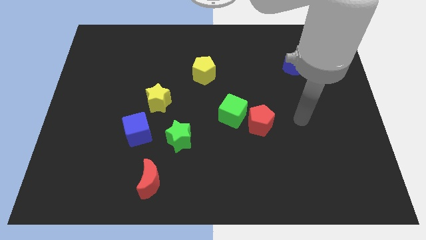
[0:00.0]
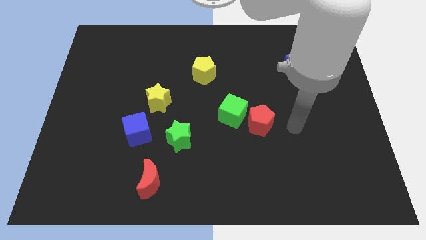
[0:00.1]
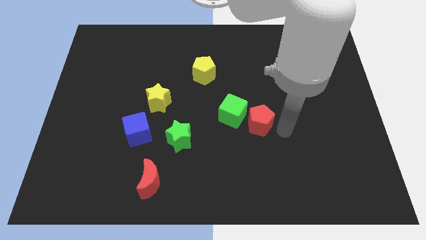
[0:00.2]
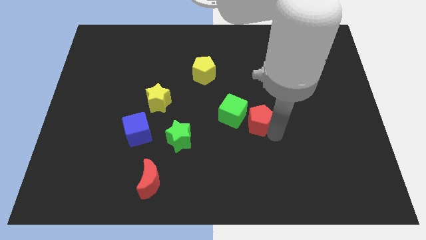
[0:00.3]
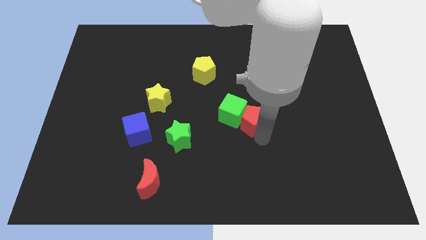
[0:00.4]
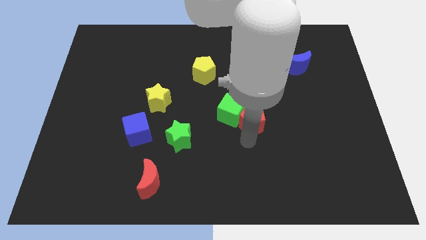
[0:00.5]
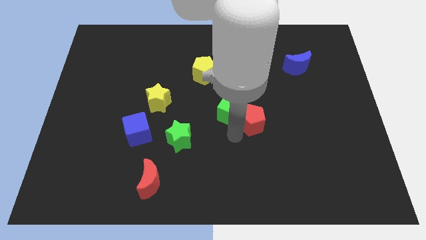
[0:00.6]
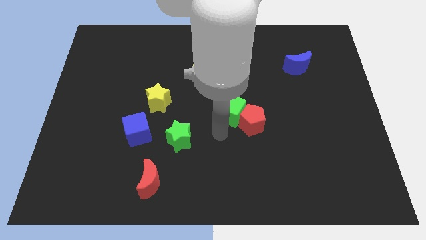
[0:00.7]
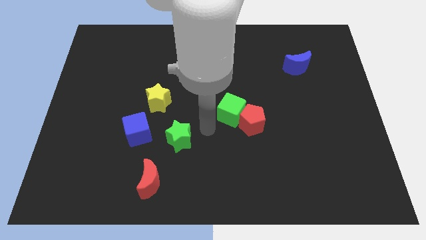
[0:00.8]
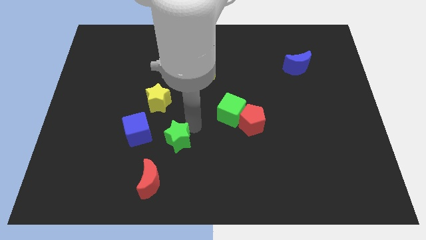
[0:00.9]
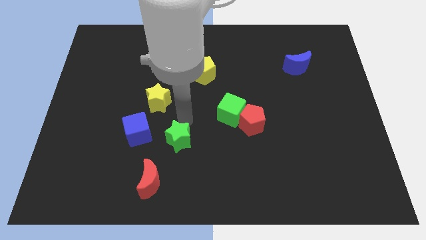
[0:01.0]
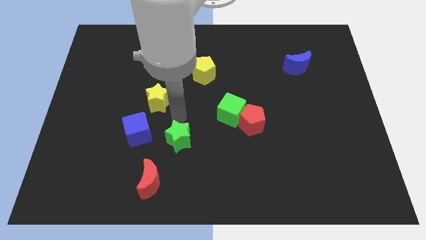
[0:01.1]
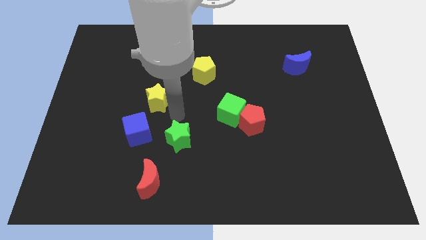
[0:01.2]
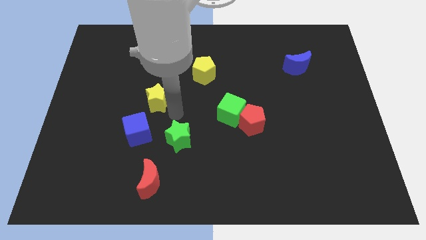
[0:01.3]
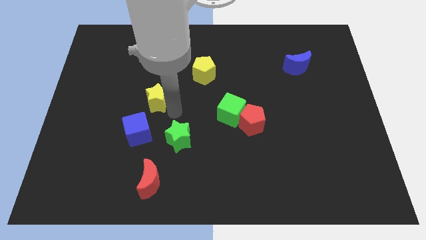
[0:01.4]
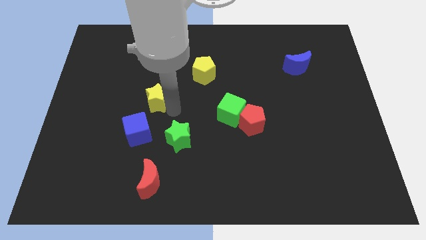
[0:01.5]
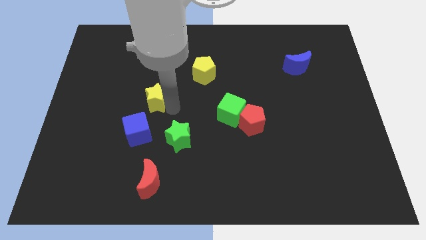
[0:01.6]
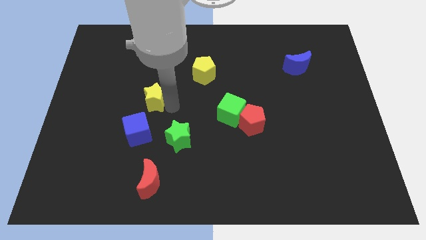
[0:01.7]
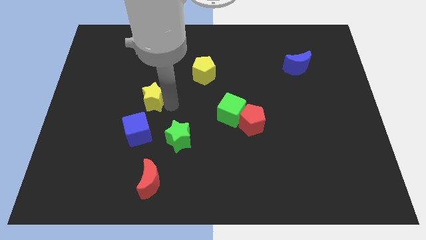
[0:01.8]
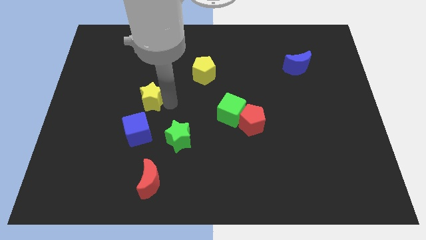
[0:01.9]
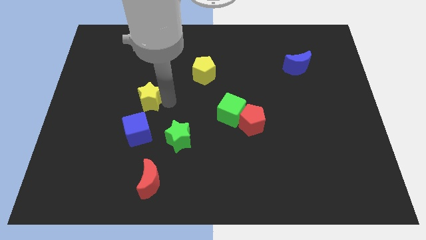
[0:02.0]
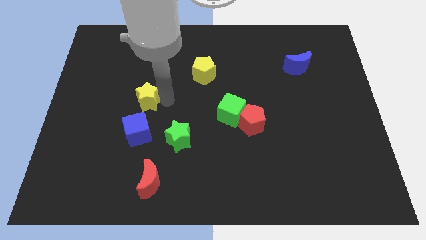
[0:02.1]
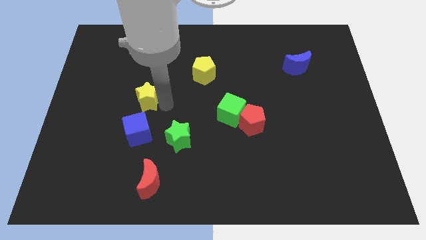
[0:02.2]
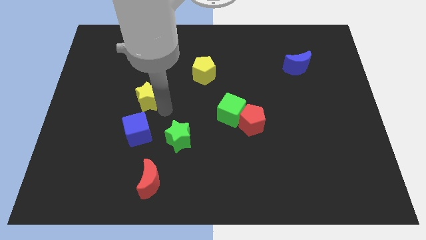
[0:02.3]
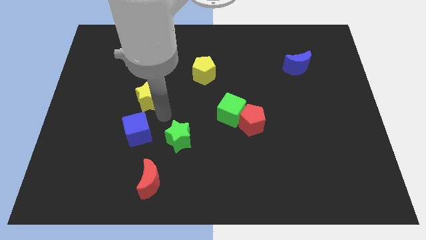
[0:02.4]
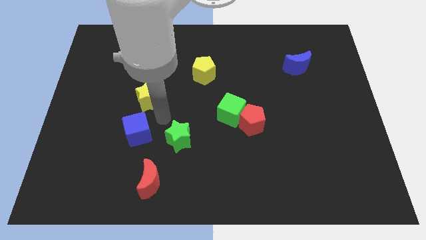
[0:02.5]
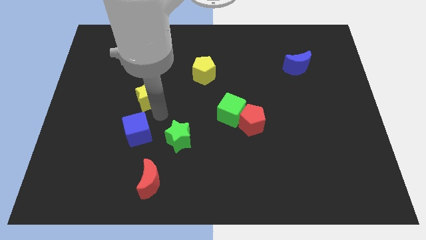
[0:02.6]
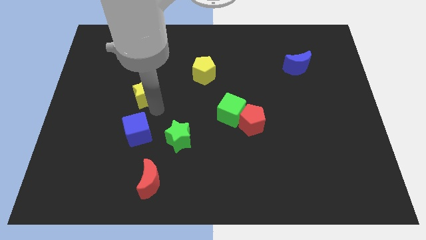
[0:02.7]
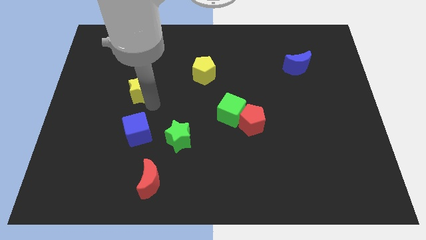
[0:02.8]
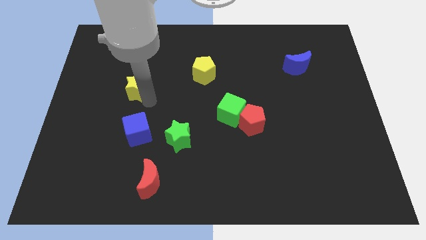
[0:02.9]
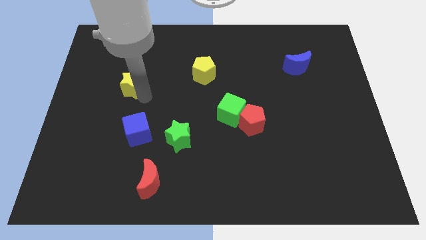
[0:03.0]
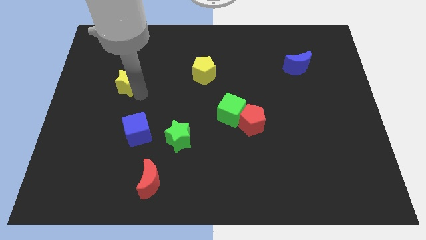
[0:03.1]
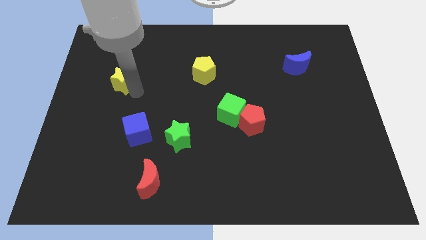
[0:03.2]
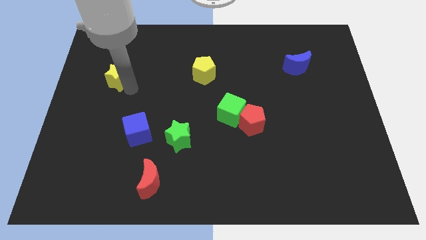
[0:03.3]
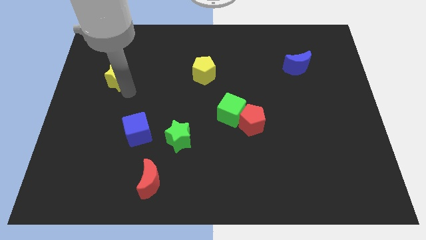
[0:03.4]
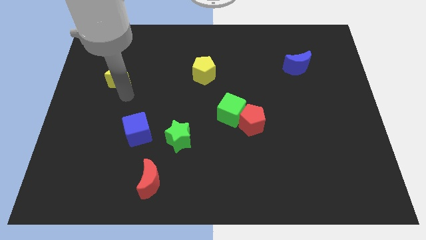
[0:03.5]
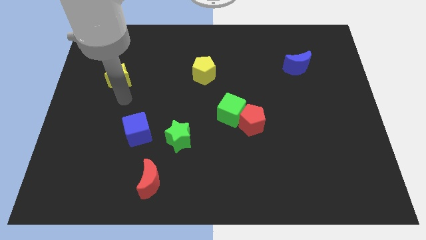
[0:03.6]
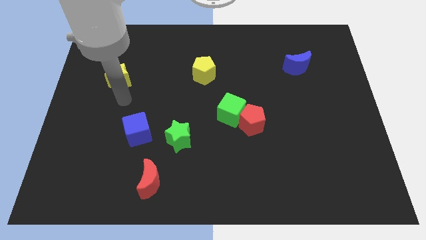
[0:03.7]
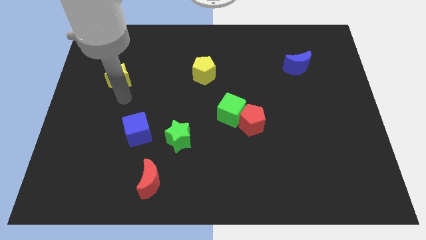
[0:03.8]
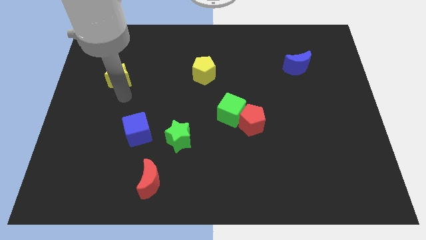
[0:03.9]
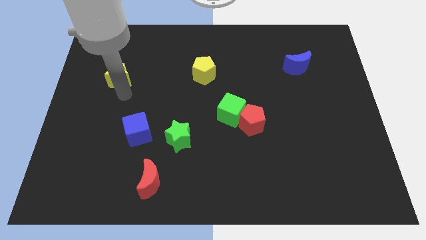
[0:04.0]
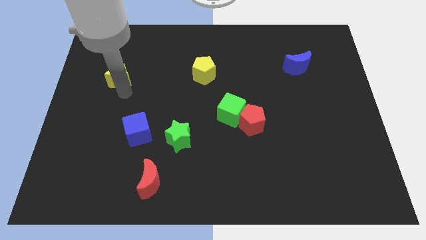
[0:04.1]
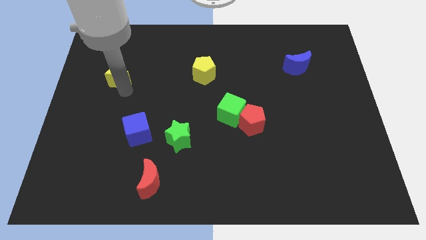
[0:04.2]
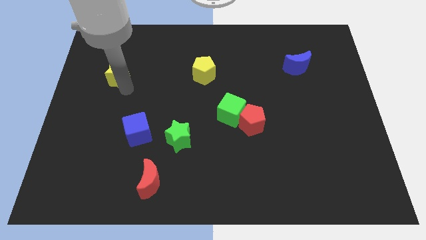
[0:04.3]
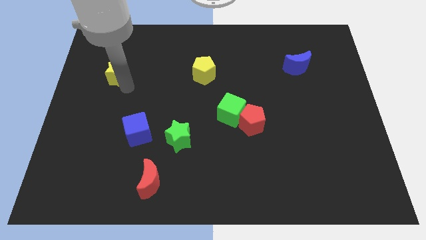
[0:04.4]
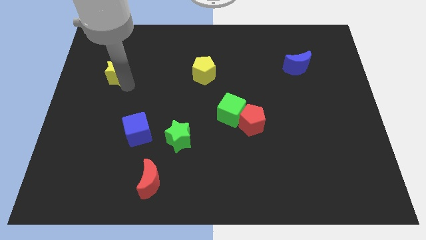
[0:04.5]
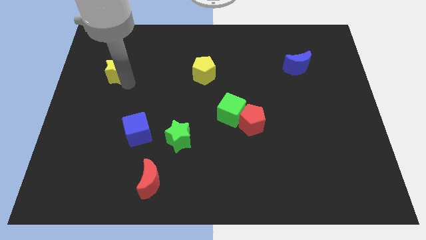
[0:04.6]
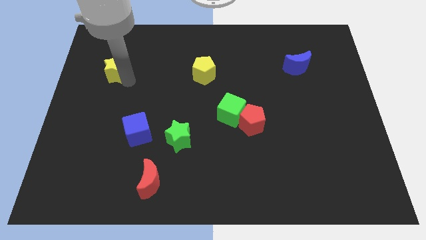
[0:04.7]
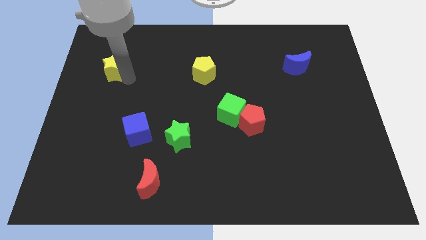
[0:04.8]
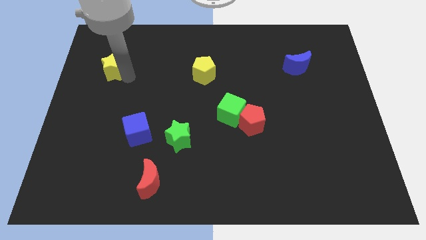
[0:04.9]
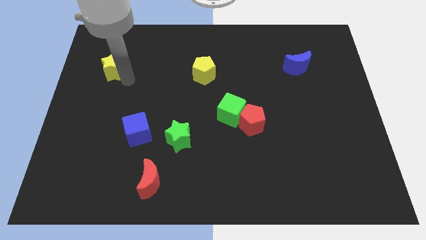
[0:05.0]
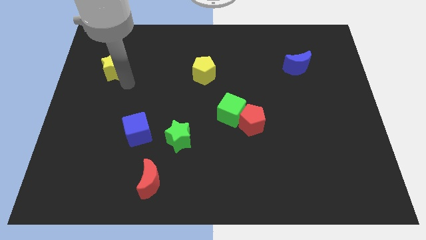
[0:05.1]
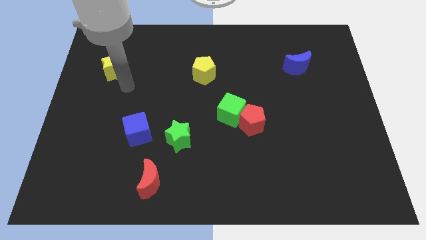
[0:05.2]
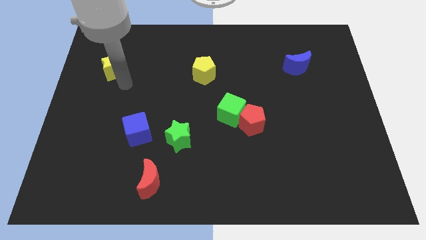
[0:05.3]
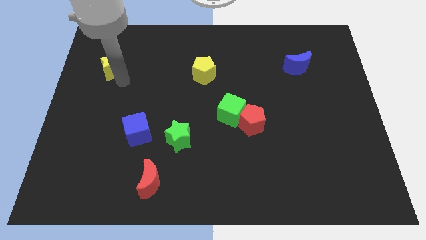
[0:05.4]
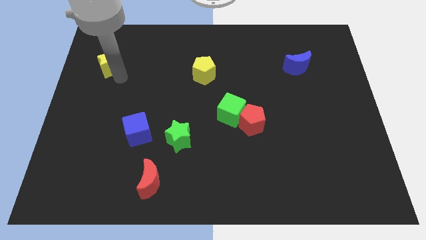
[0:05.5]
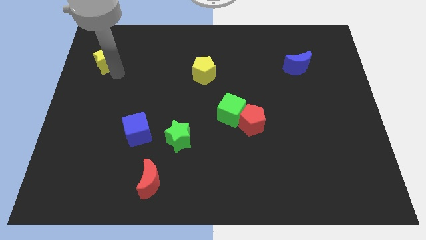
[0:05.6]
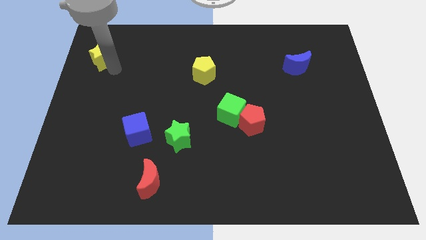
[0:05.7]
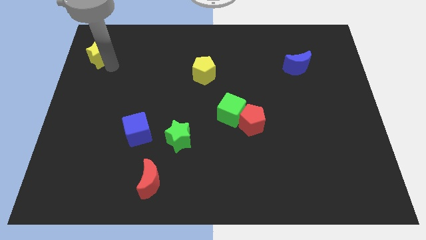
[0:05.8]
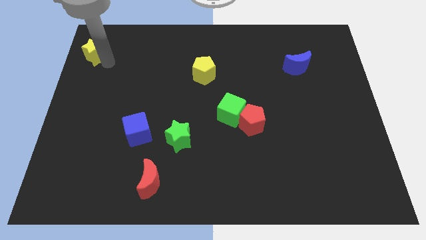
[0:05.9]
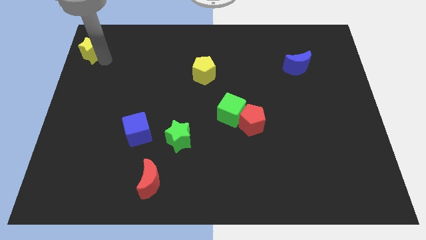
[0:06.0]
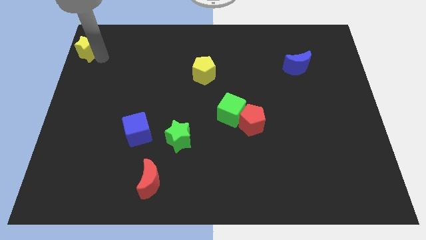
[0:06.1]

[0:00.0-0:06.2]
put the yellow star to the top left corner
